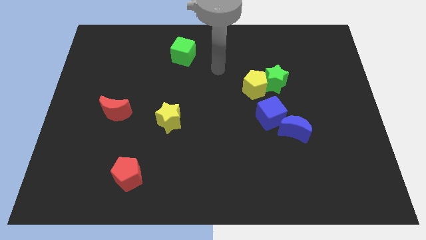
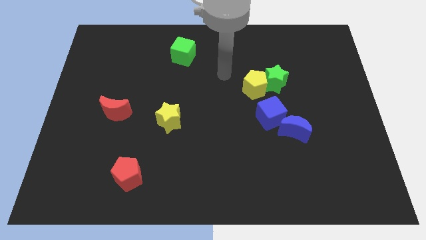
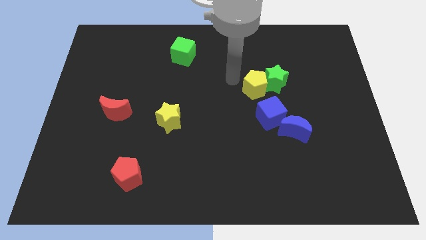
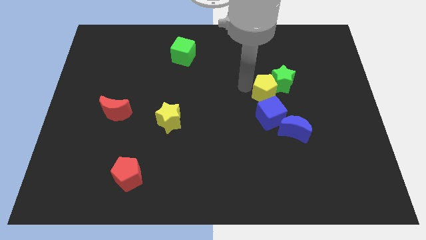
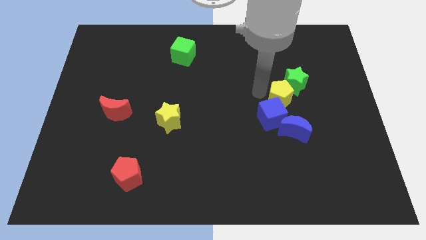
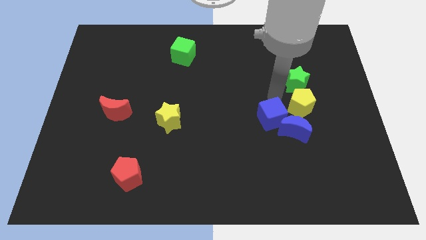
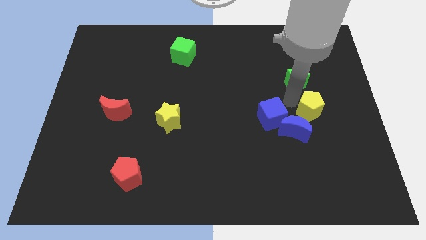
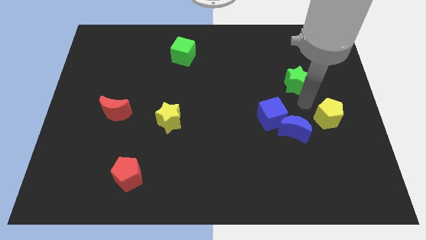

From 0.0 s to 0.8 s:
separate the green star from the yellow pentagon

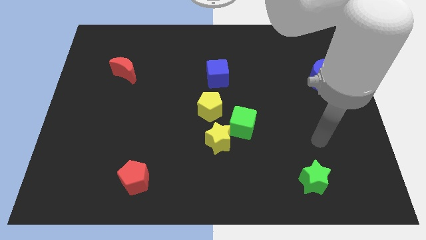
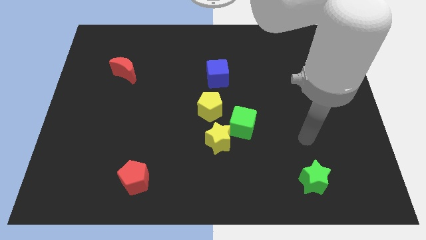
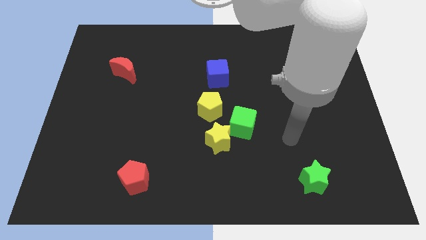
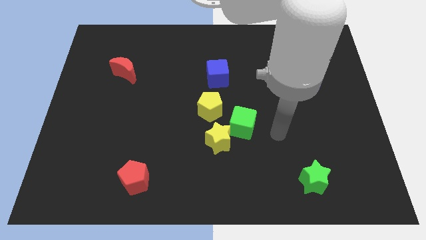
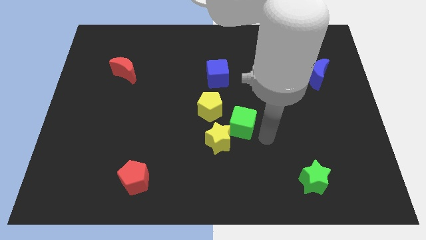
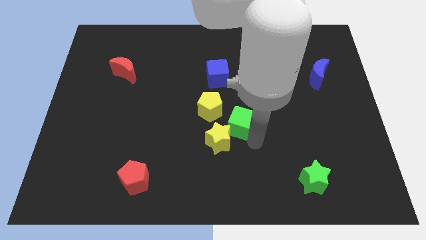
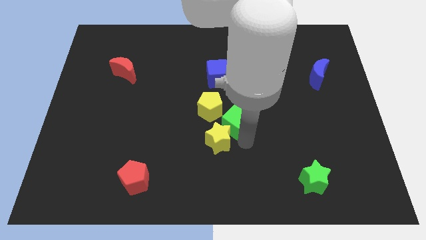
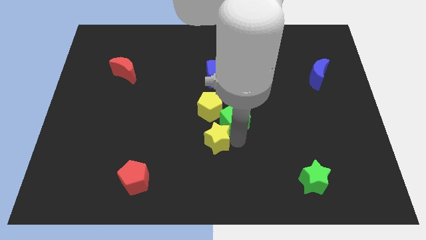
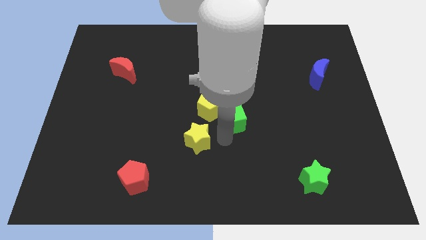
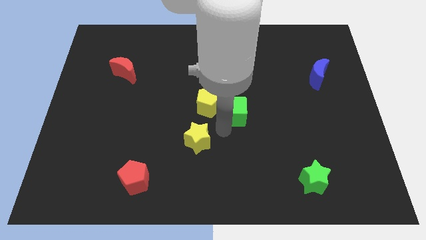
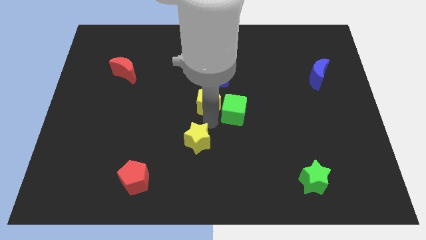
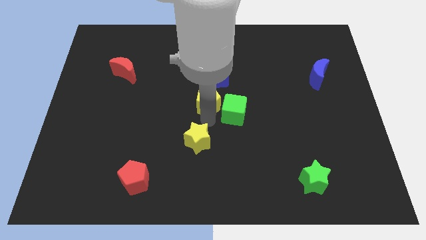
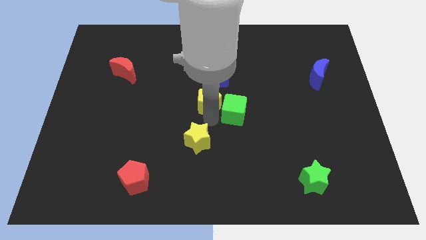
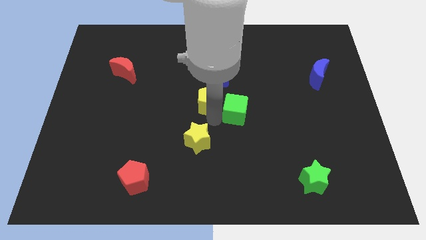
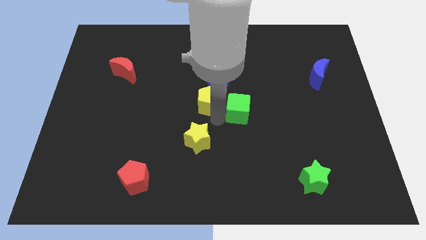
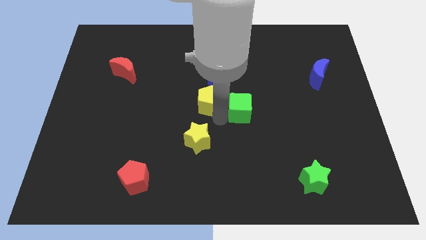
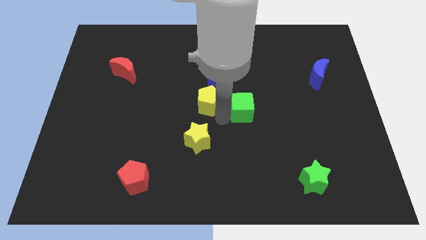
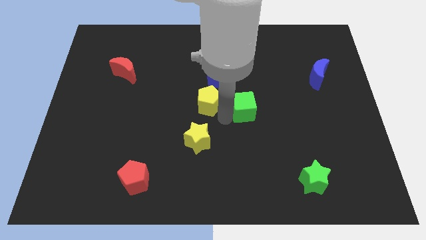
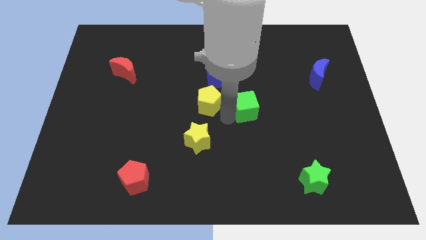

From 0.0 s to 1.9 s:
separate the green cube from the yellow star and yellow pentagon

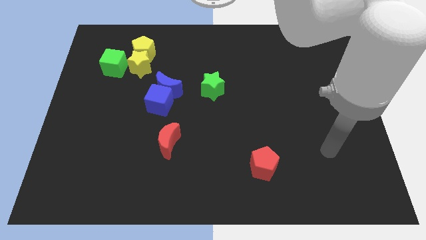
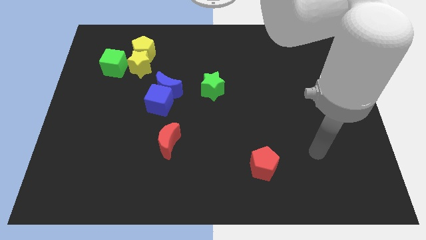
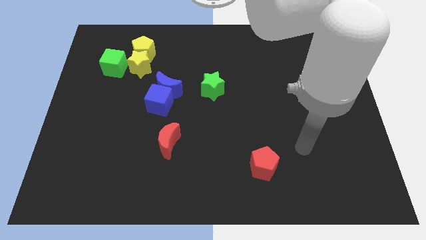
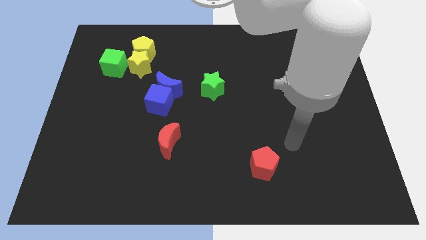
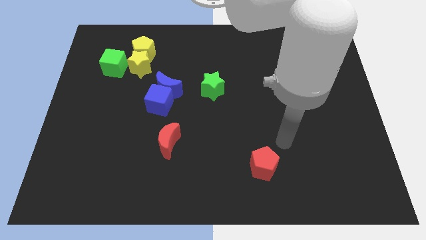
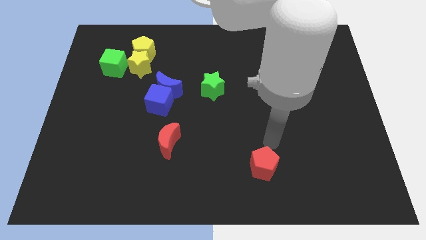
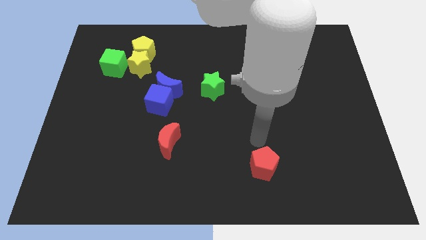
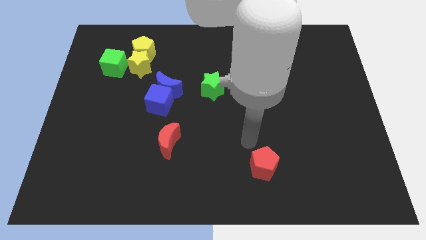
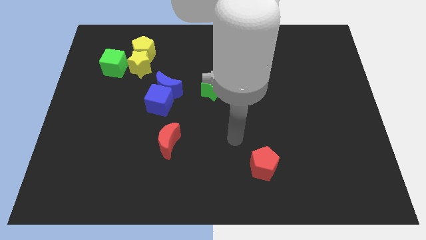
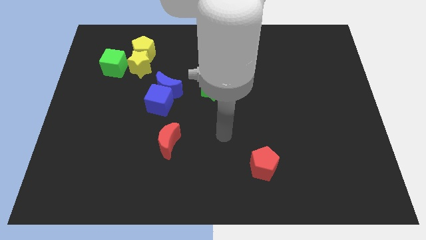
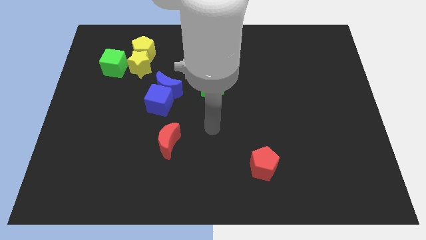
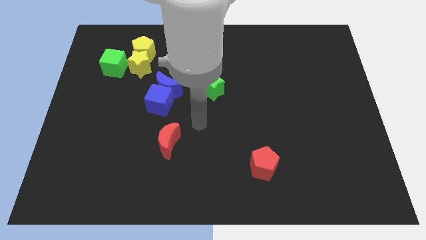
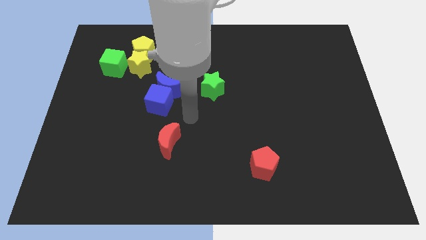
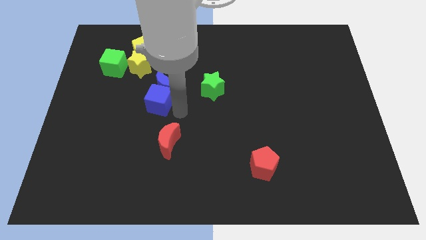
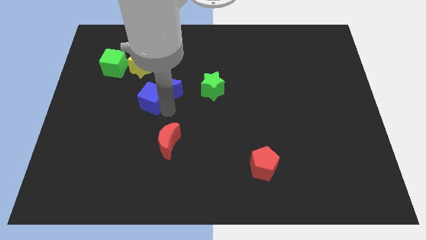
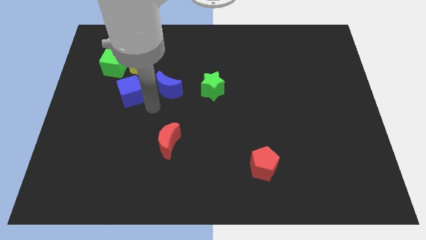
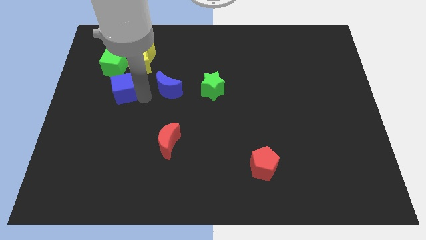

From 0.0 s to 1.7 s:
separate the blue moon from the blue cube

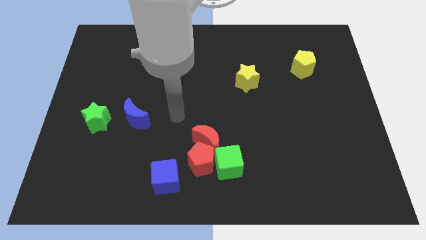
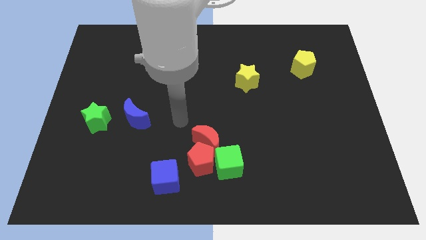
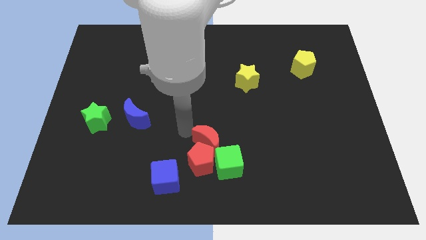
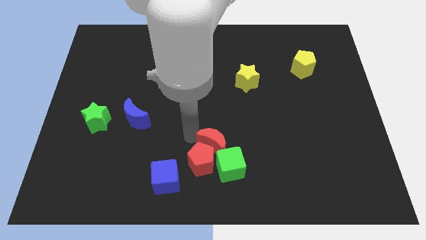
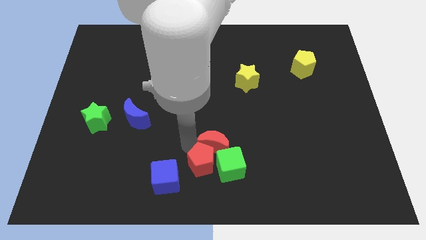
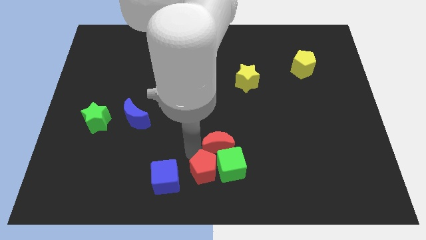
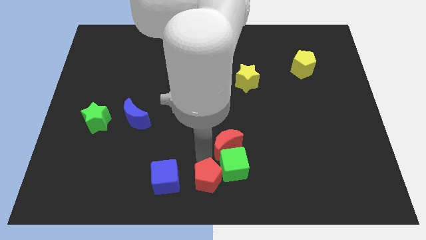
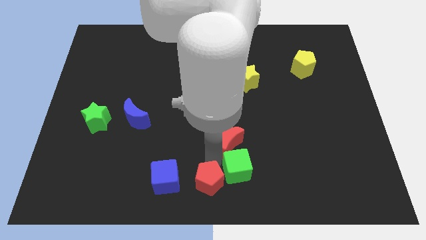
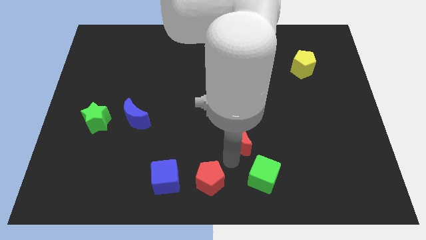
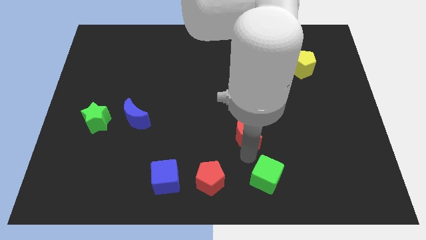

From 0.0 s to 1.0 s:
pull the red moon apart from the red pentagon and green cube

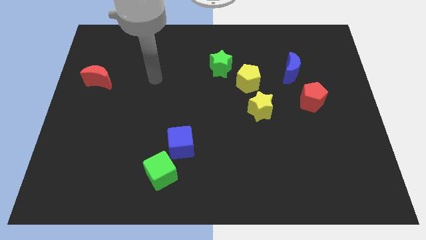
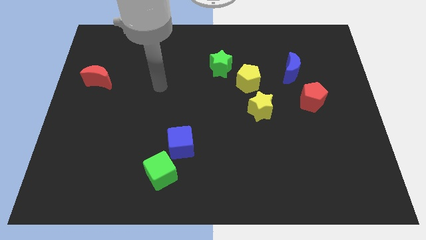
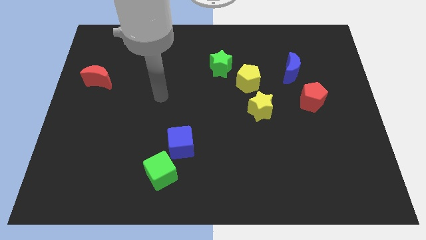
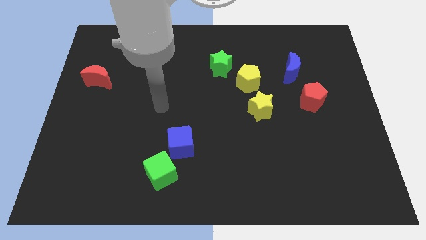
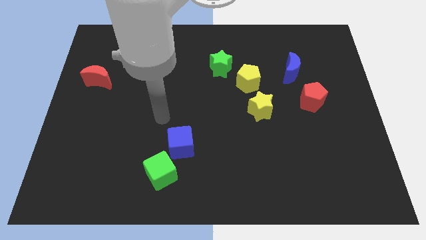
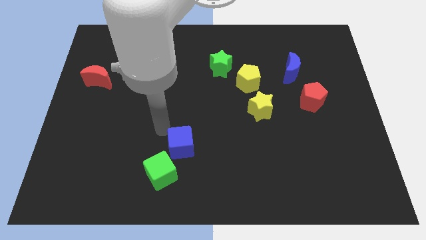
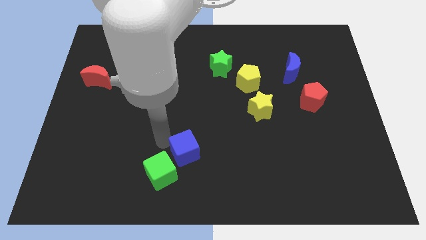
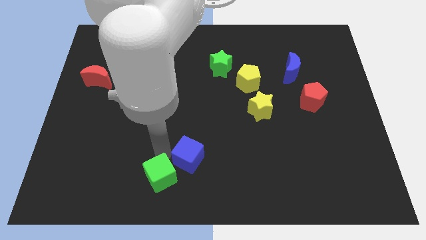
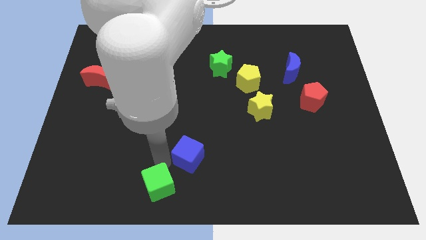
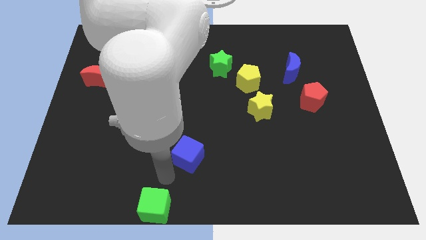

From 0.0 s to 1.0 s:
pull the blue cube apart from the green cube

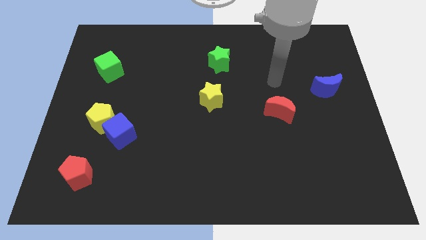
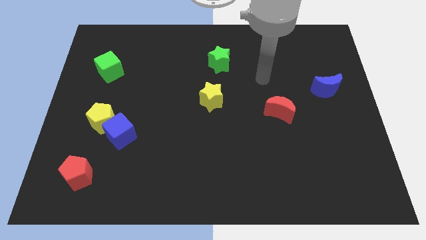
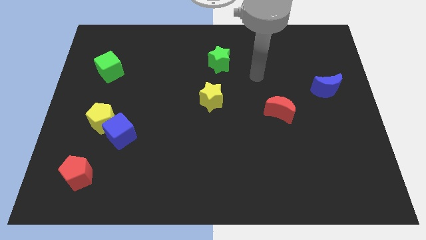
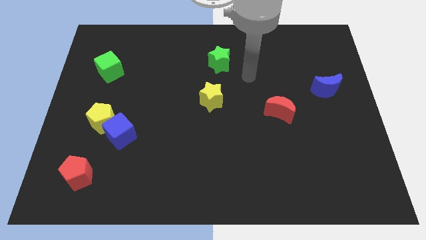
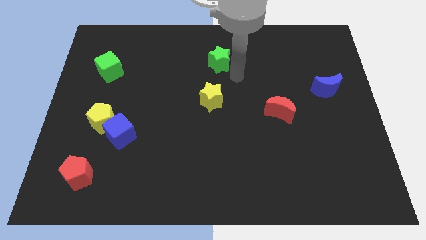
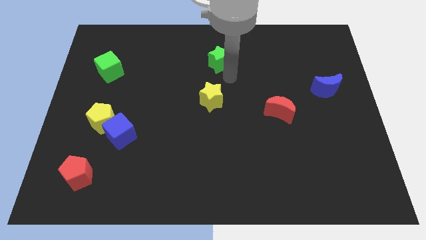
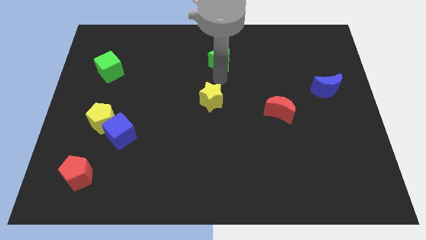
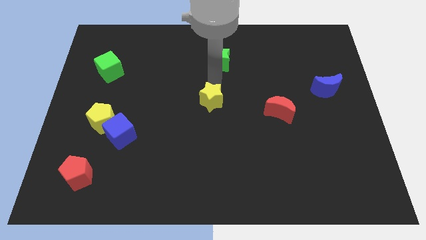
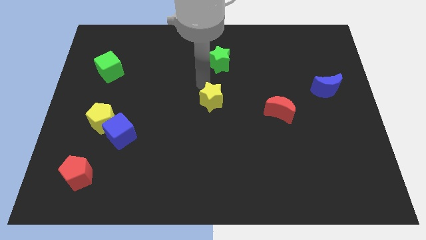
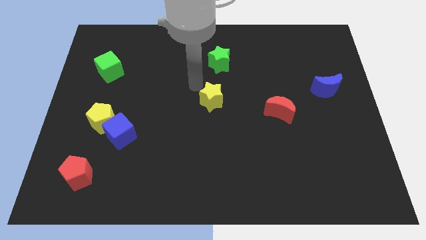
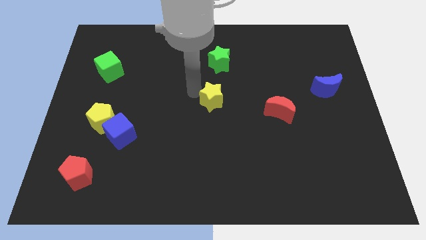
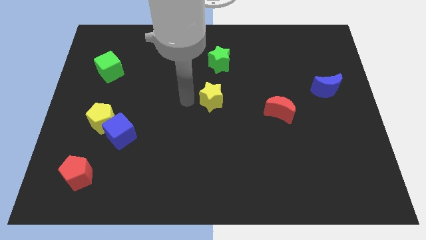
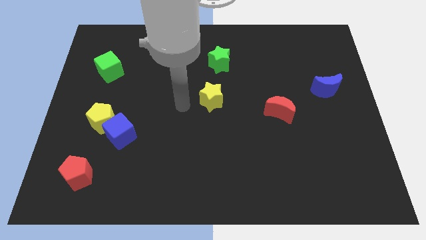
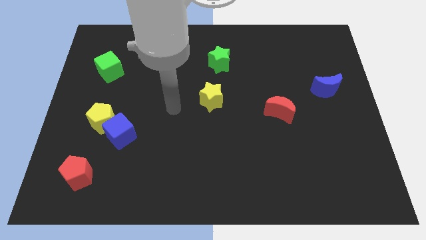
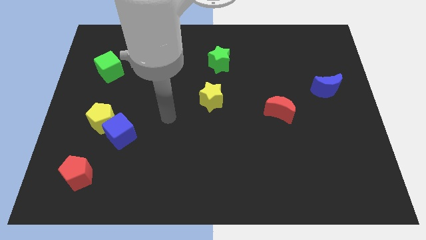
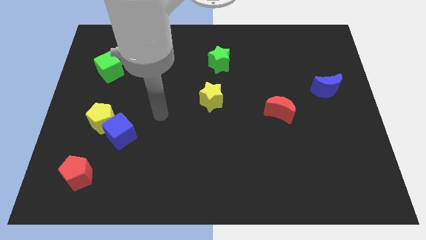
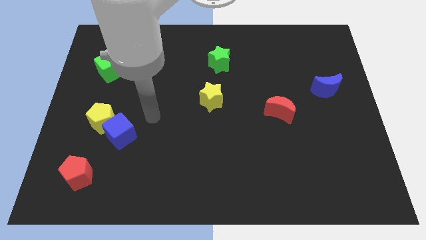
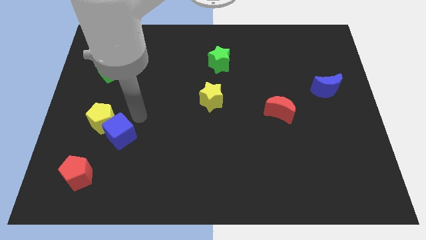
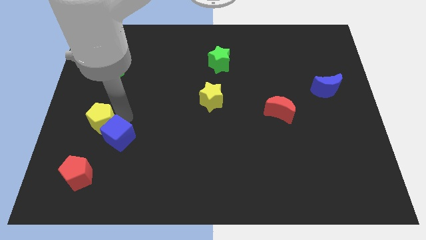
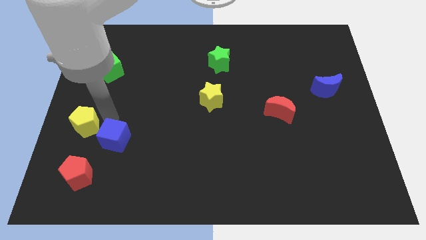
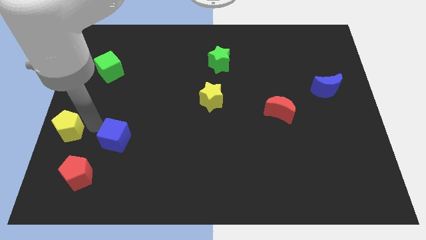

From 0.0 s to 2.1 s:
separate the blue cube from the yellow pentagon

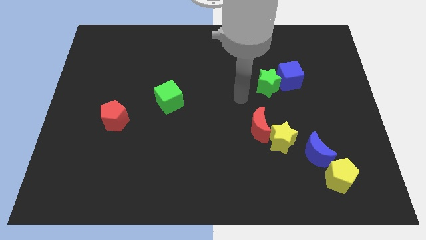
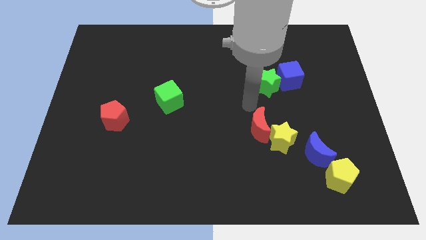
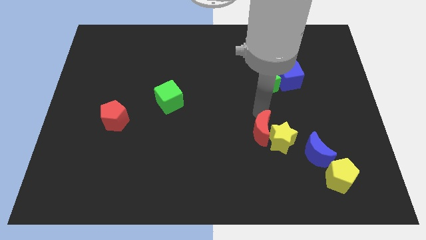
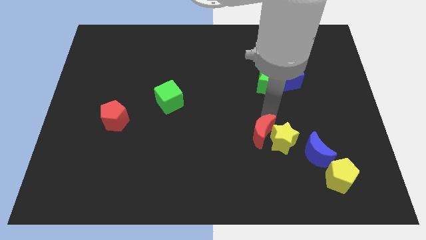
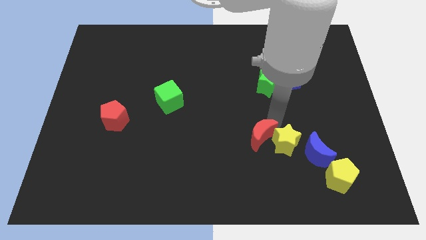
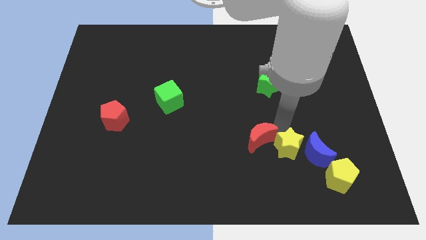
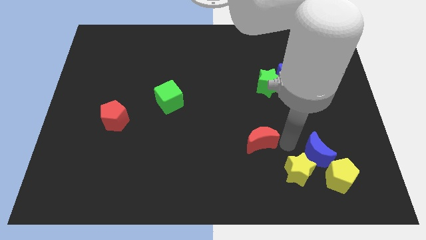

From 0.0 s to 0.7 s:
separate the red moon from the yellow star
